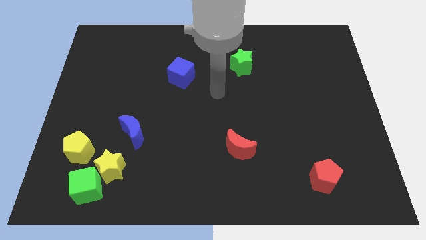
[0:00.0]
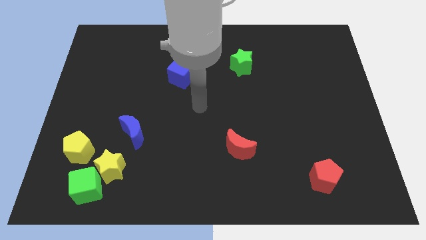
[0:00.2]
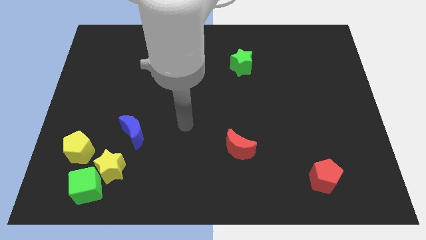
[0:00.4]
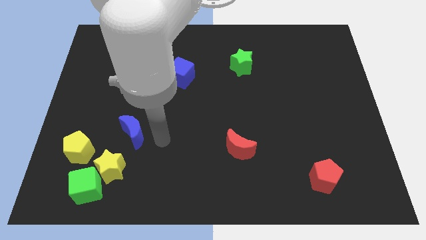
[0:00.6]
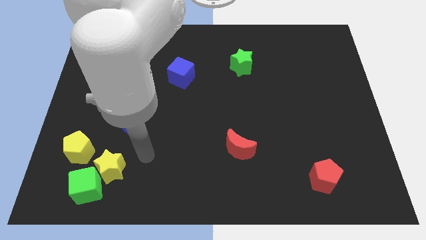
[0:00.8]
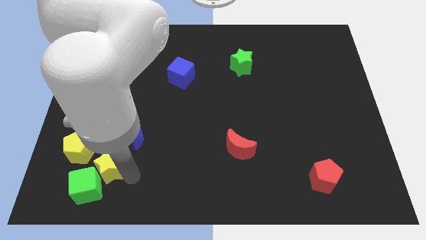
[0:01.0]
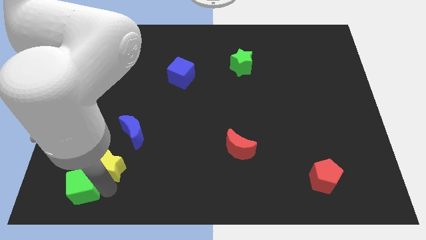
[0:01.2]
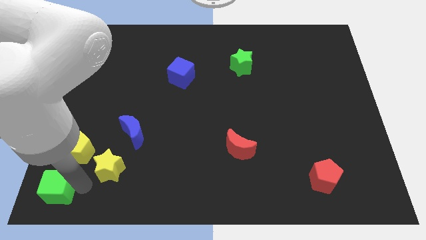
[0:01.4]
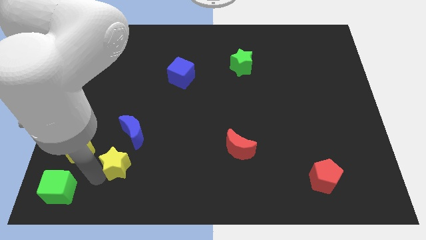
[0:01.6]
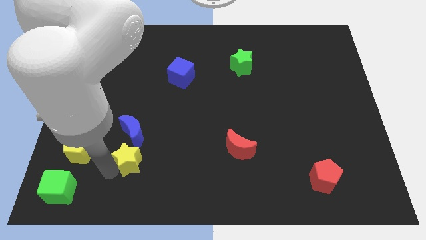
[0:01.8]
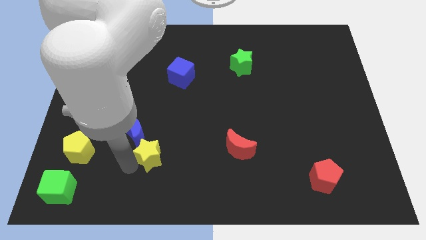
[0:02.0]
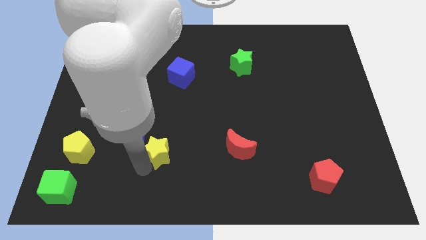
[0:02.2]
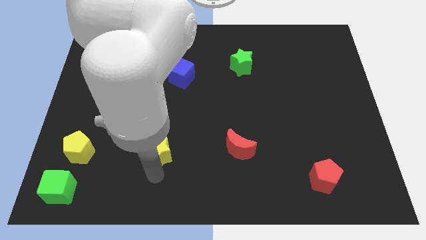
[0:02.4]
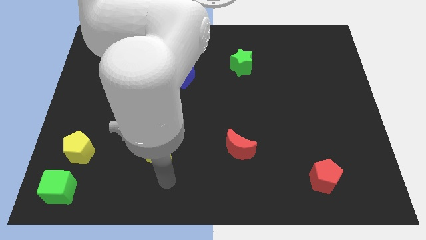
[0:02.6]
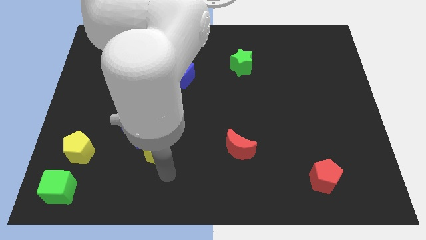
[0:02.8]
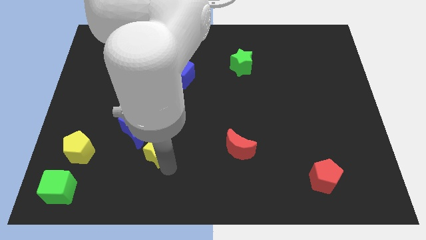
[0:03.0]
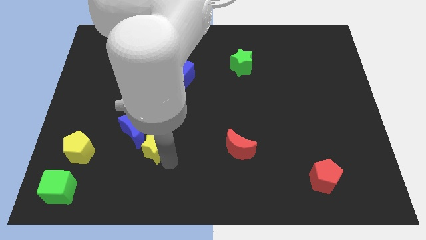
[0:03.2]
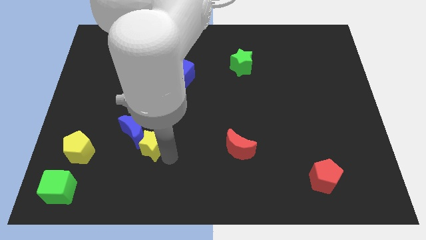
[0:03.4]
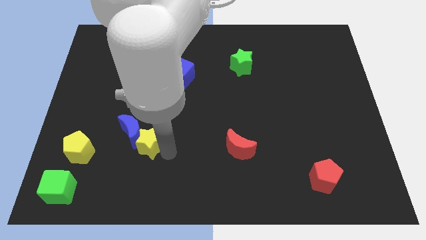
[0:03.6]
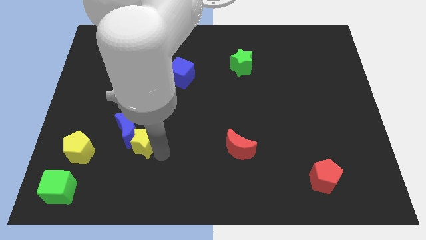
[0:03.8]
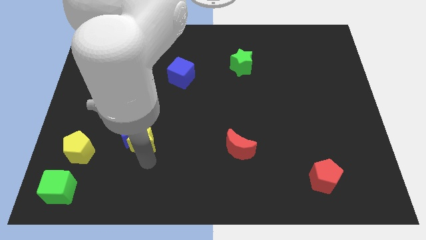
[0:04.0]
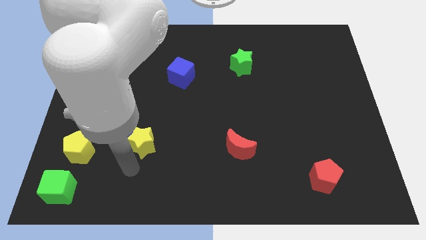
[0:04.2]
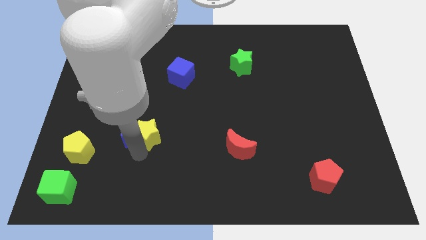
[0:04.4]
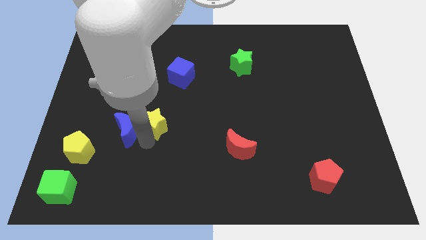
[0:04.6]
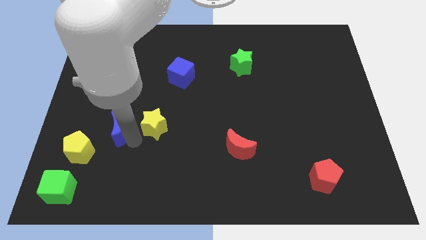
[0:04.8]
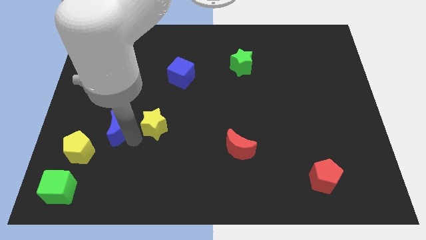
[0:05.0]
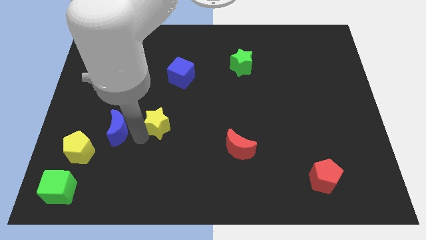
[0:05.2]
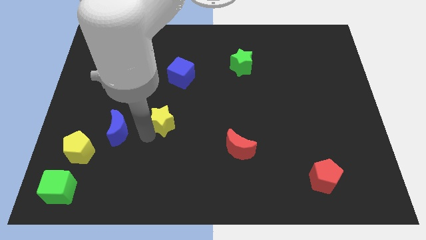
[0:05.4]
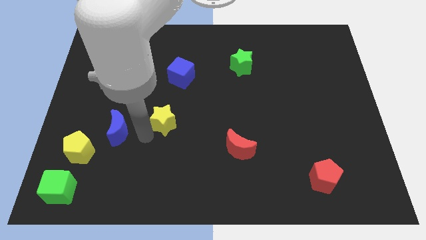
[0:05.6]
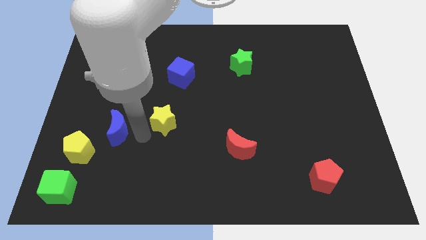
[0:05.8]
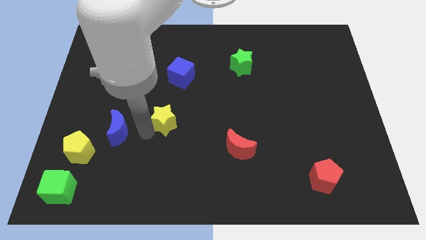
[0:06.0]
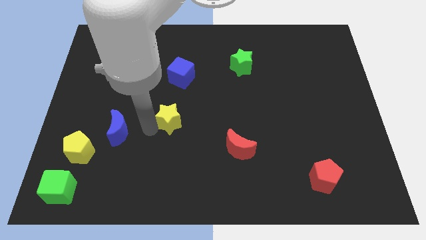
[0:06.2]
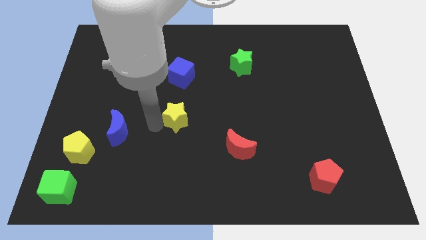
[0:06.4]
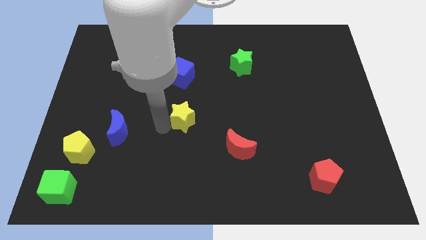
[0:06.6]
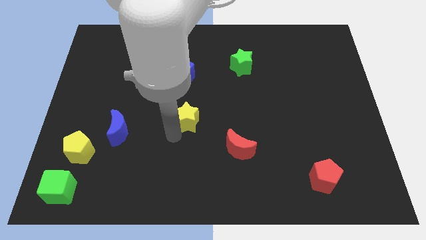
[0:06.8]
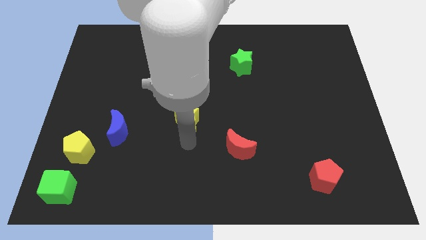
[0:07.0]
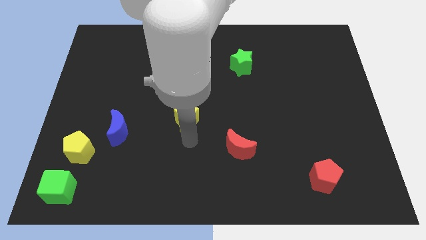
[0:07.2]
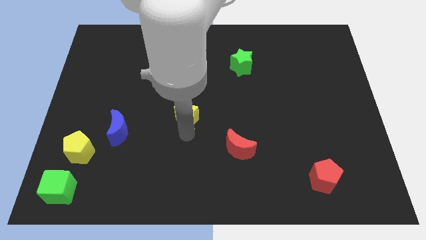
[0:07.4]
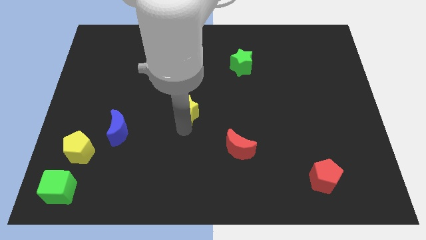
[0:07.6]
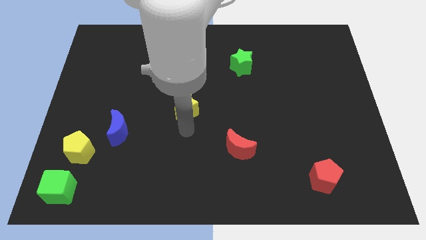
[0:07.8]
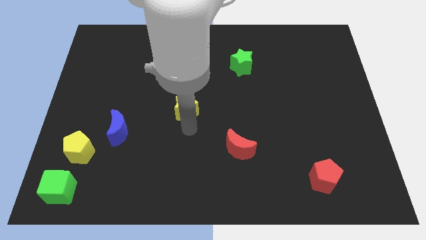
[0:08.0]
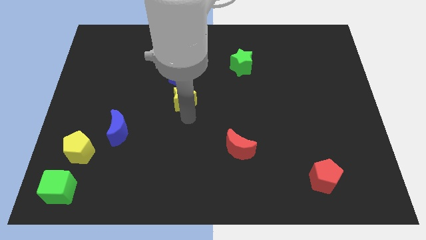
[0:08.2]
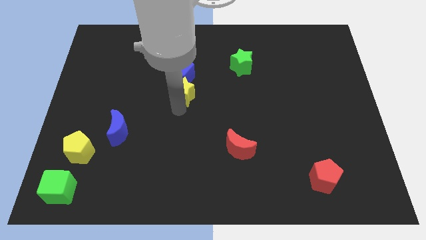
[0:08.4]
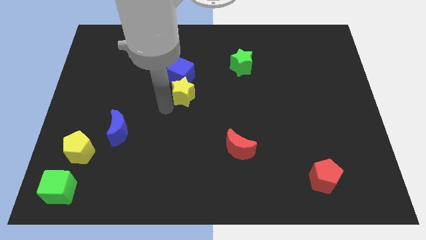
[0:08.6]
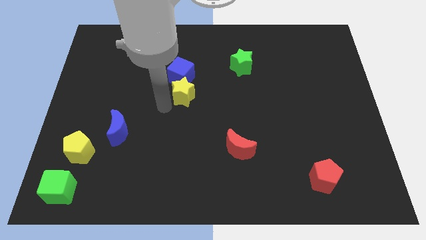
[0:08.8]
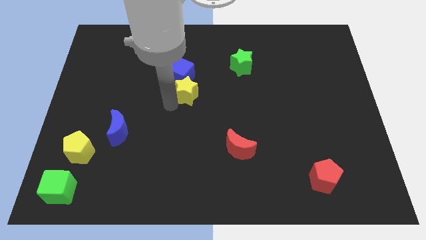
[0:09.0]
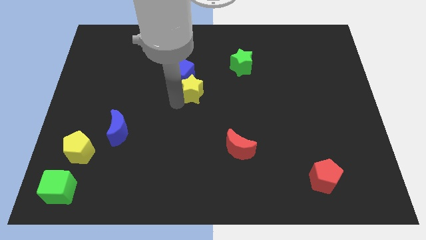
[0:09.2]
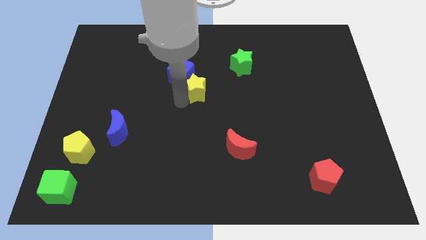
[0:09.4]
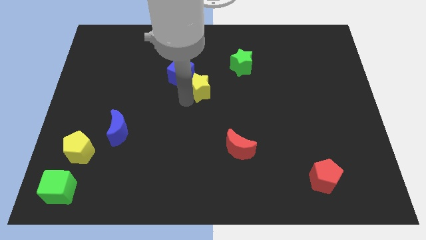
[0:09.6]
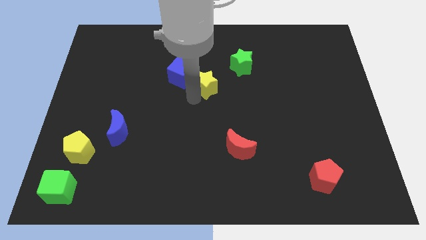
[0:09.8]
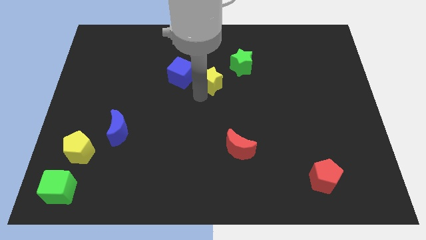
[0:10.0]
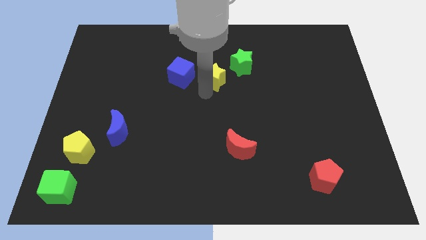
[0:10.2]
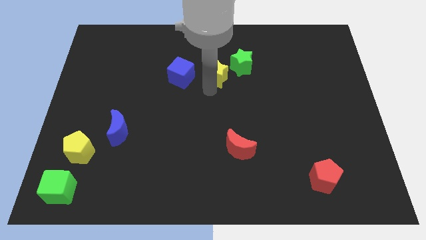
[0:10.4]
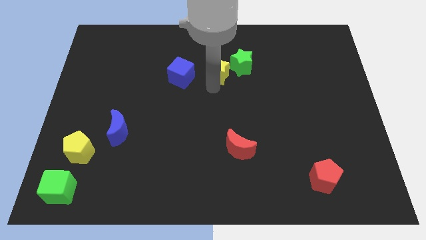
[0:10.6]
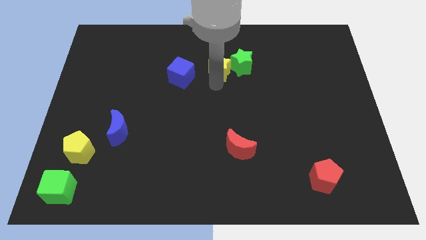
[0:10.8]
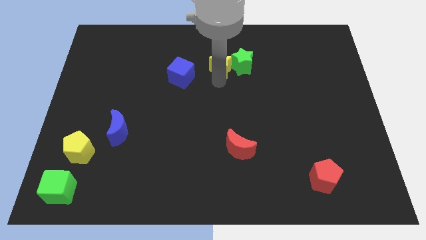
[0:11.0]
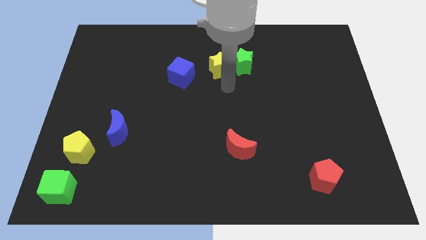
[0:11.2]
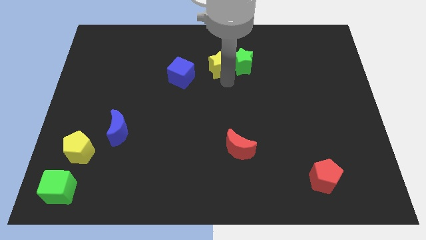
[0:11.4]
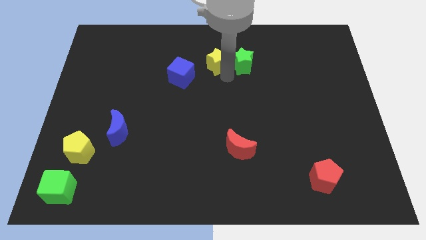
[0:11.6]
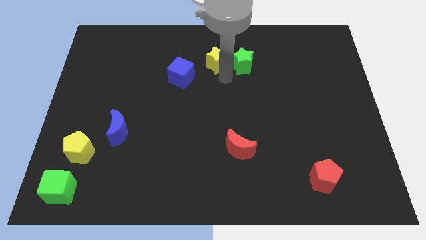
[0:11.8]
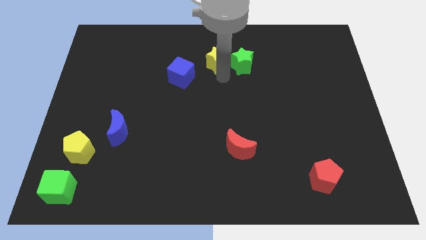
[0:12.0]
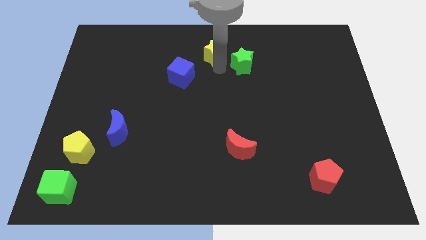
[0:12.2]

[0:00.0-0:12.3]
push the yellow star to the top side
